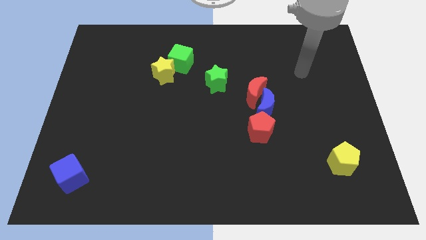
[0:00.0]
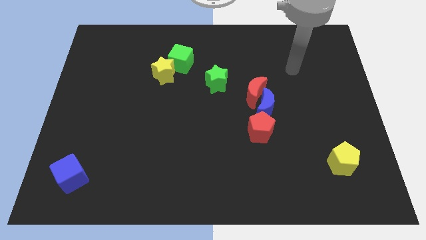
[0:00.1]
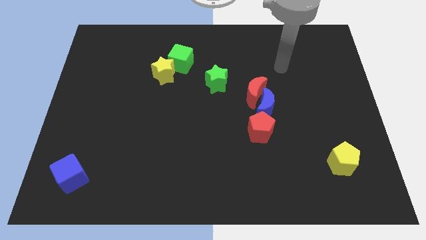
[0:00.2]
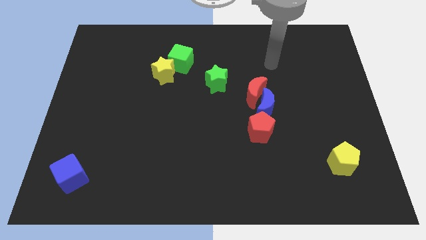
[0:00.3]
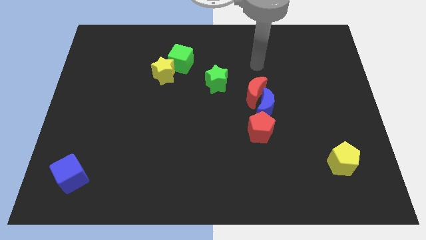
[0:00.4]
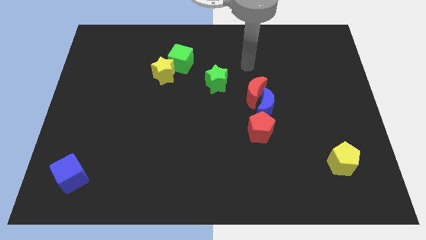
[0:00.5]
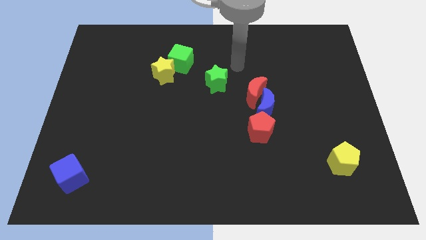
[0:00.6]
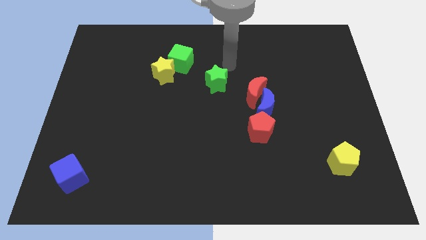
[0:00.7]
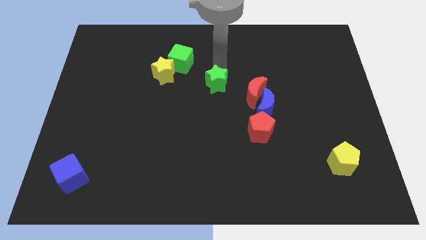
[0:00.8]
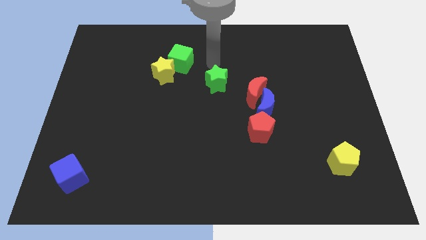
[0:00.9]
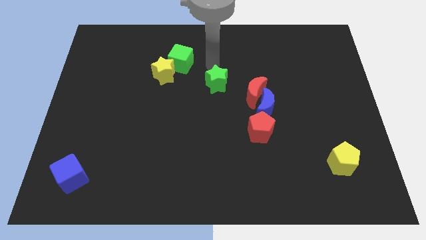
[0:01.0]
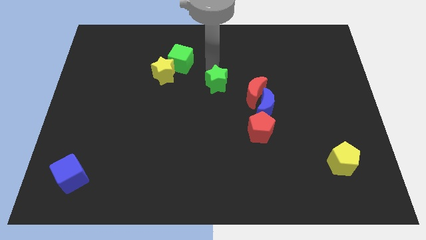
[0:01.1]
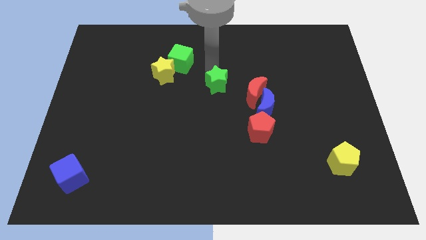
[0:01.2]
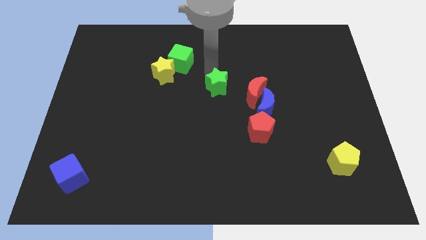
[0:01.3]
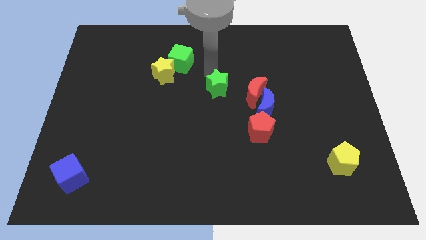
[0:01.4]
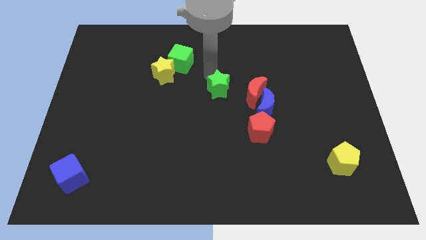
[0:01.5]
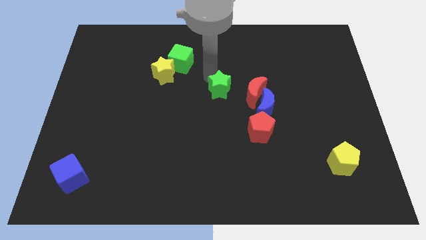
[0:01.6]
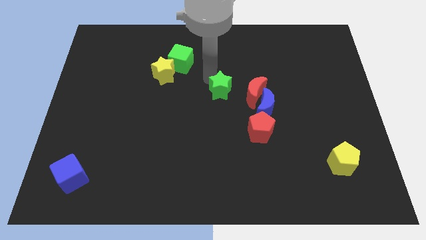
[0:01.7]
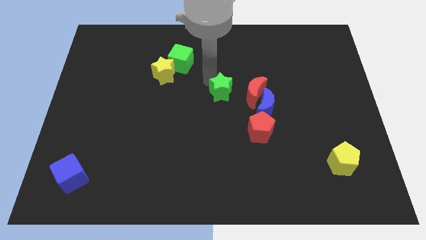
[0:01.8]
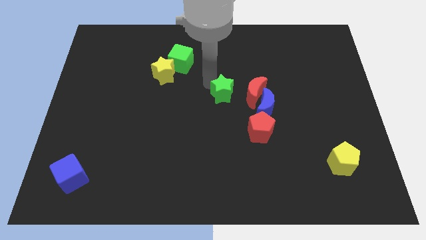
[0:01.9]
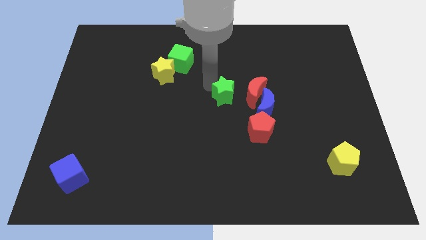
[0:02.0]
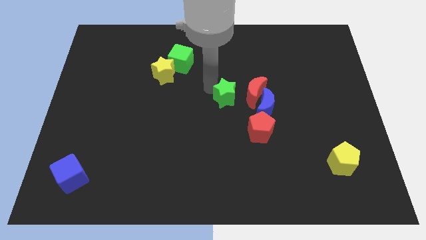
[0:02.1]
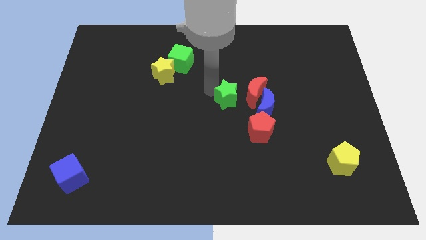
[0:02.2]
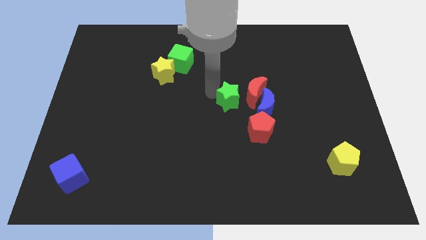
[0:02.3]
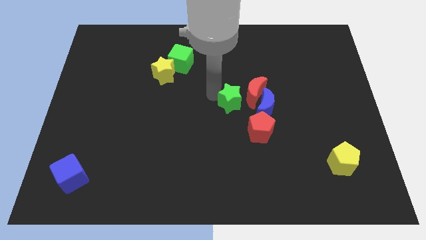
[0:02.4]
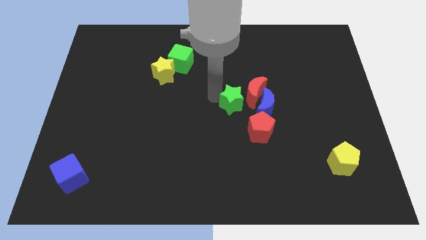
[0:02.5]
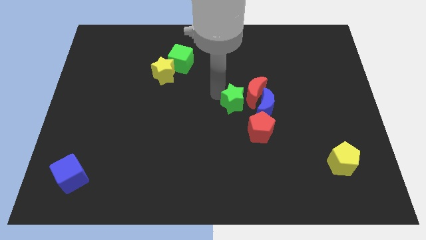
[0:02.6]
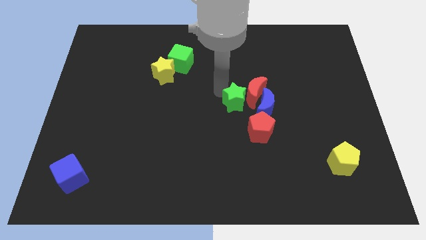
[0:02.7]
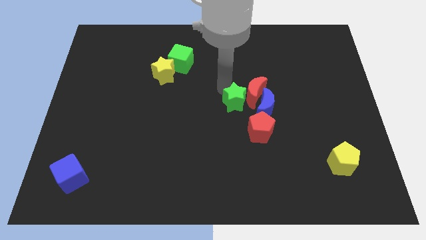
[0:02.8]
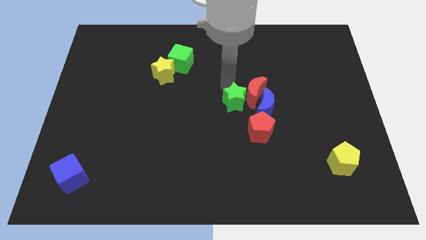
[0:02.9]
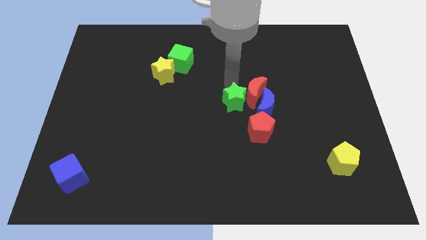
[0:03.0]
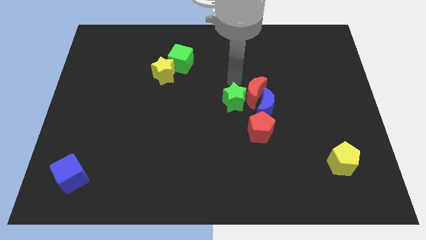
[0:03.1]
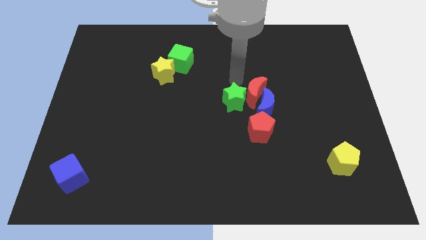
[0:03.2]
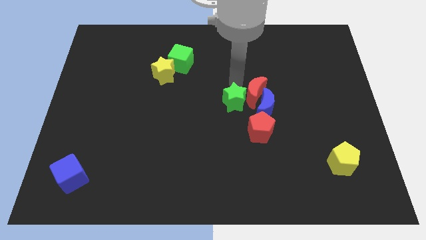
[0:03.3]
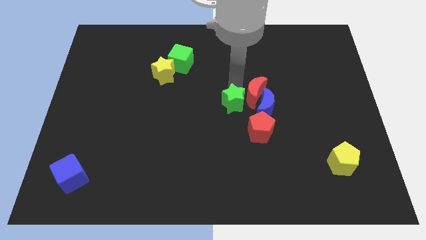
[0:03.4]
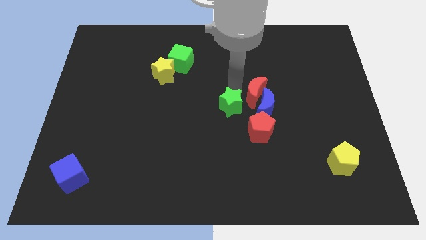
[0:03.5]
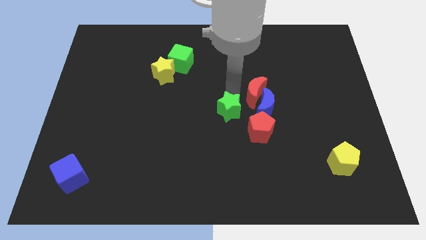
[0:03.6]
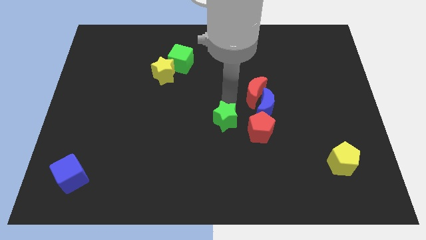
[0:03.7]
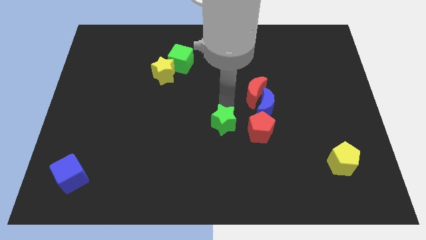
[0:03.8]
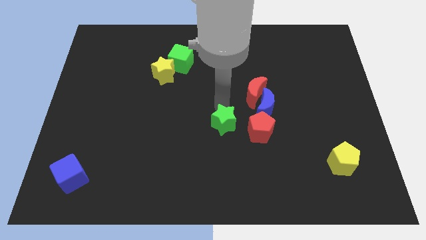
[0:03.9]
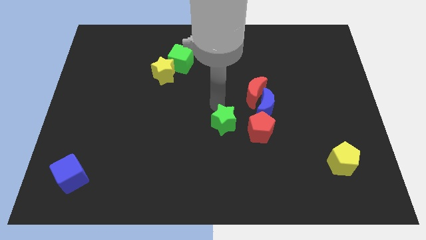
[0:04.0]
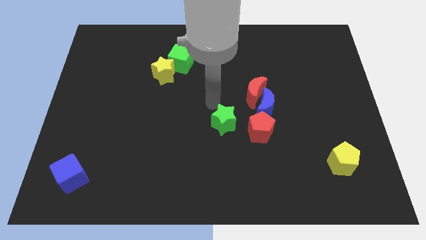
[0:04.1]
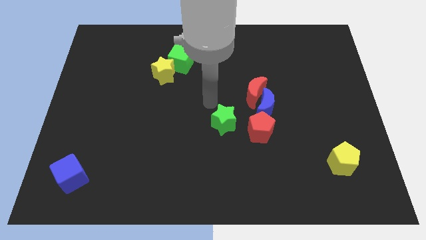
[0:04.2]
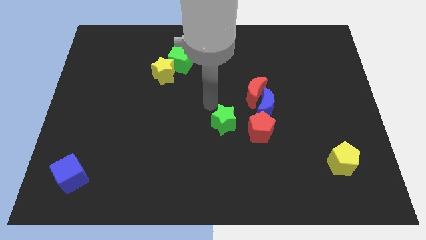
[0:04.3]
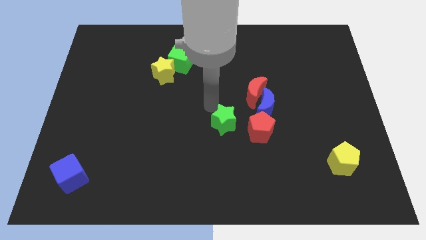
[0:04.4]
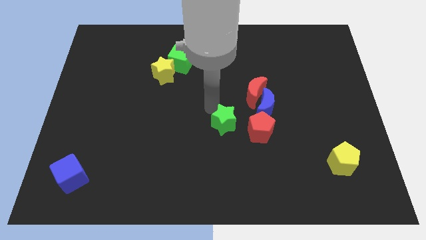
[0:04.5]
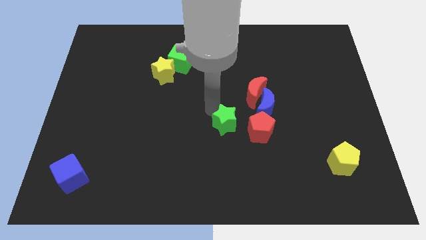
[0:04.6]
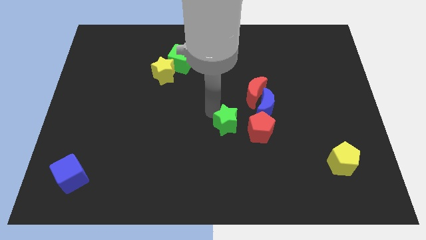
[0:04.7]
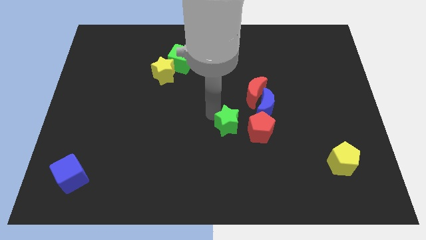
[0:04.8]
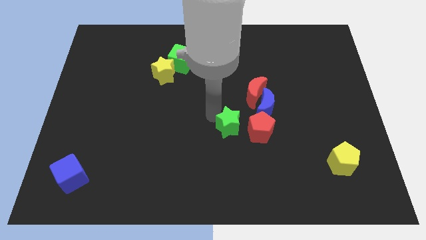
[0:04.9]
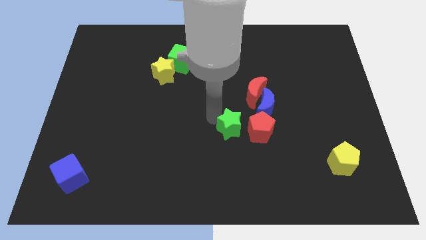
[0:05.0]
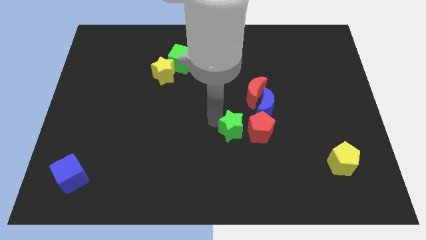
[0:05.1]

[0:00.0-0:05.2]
slide the green star diagonally down and to the left of the red pentagon

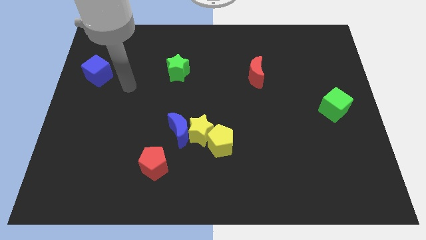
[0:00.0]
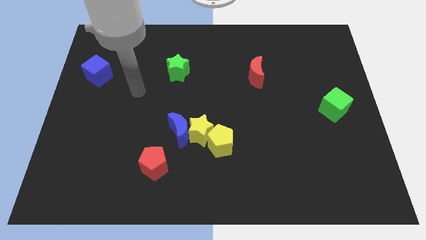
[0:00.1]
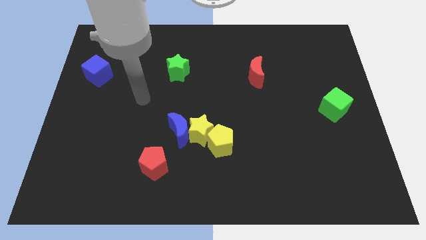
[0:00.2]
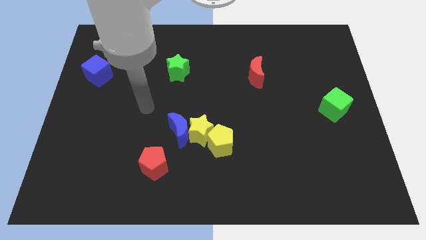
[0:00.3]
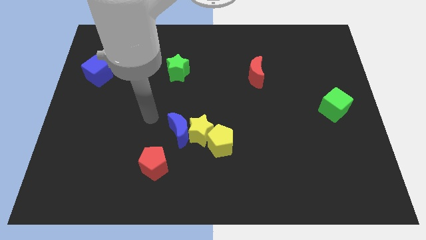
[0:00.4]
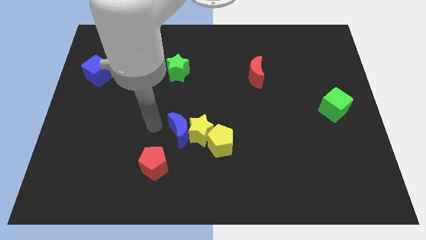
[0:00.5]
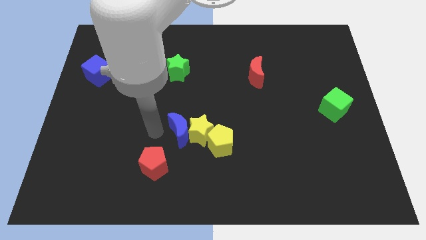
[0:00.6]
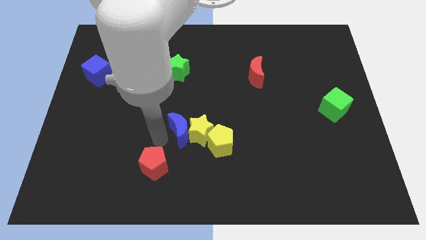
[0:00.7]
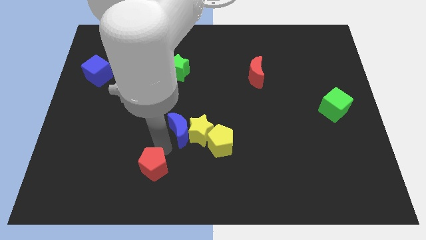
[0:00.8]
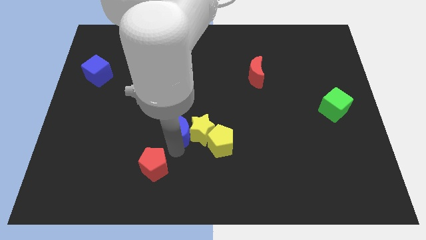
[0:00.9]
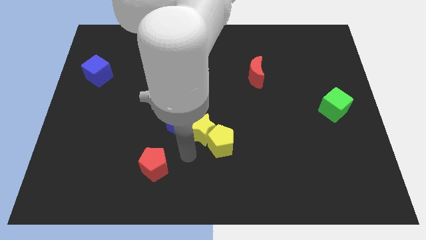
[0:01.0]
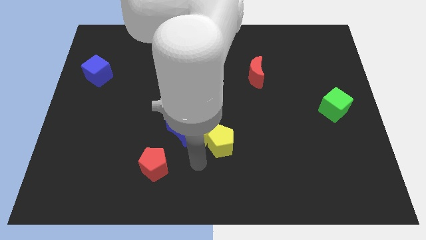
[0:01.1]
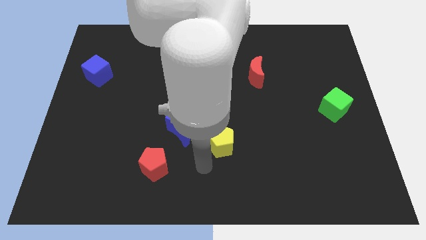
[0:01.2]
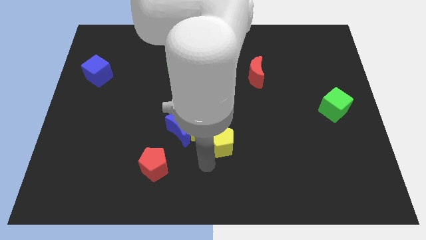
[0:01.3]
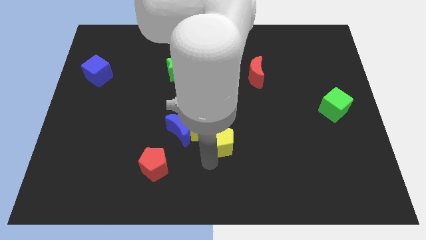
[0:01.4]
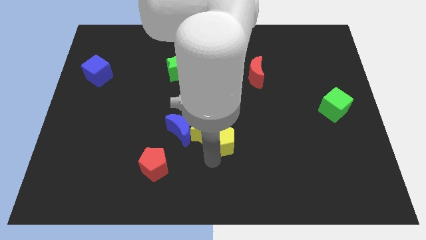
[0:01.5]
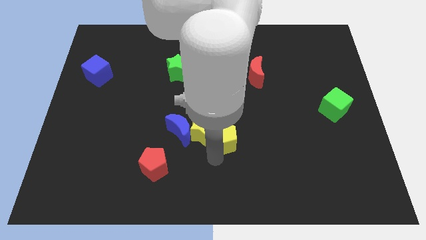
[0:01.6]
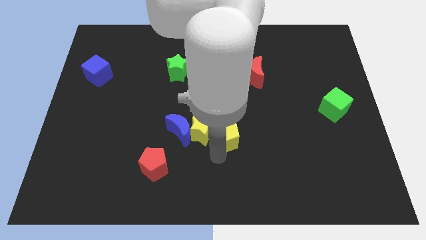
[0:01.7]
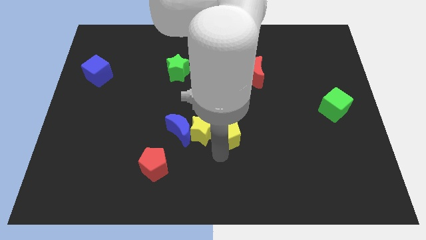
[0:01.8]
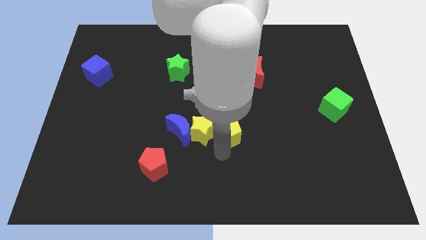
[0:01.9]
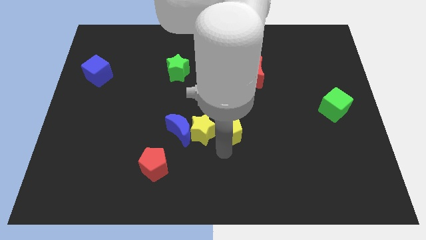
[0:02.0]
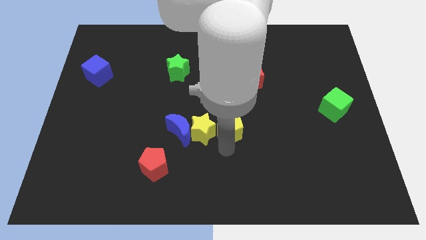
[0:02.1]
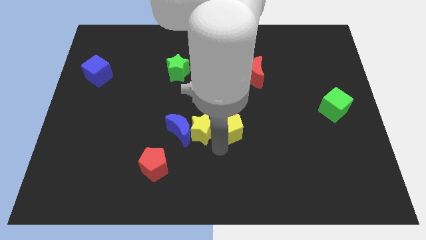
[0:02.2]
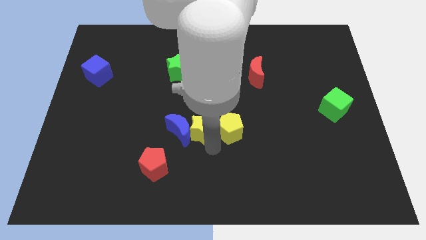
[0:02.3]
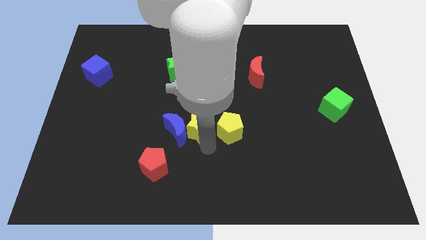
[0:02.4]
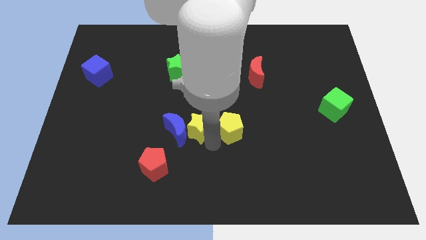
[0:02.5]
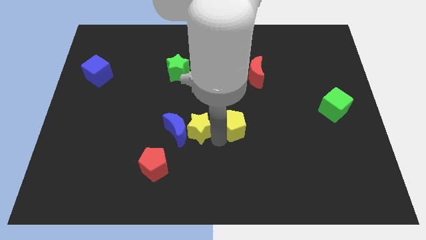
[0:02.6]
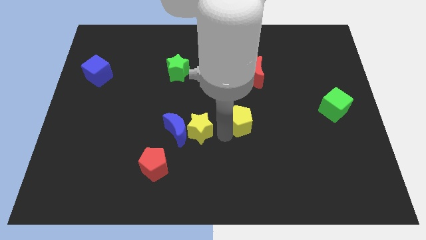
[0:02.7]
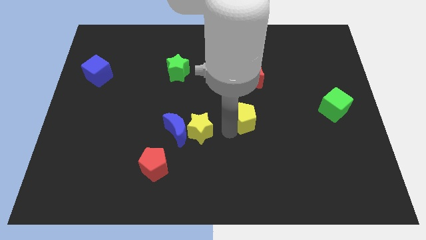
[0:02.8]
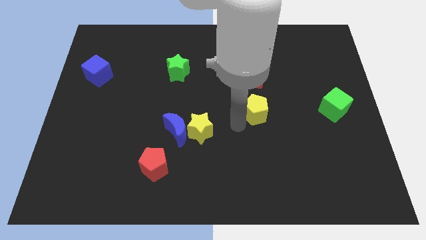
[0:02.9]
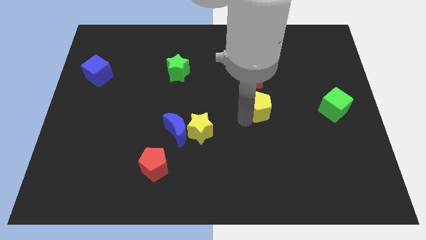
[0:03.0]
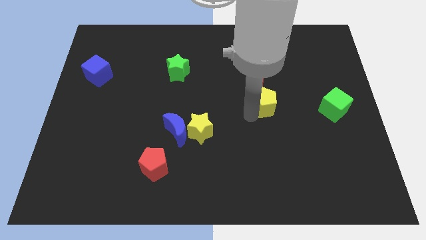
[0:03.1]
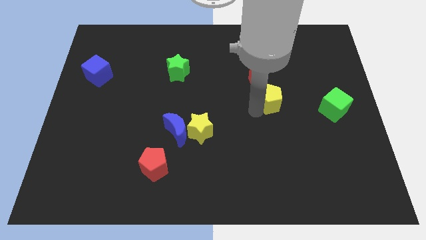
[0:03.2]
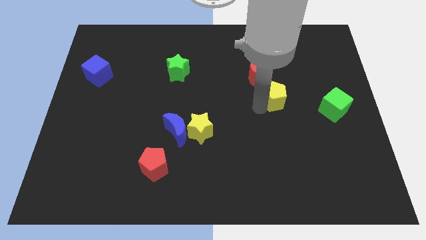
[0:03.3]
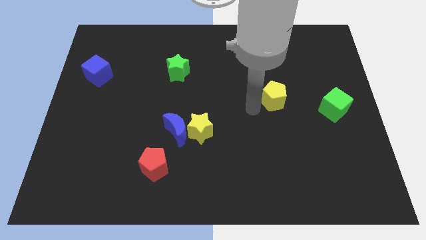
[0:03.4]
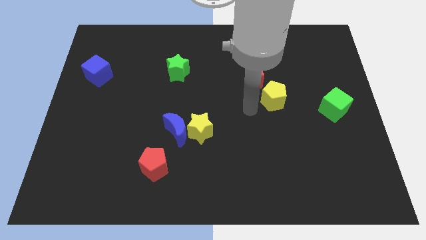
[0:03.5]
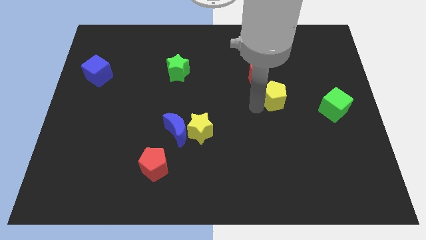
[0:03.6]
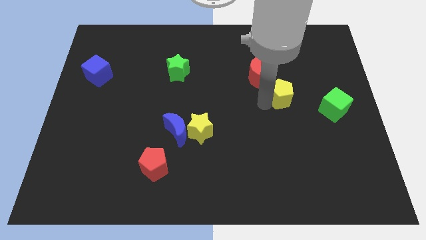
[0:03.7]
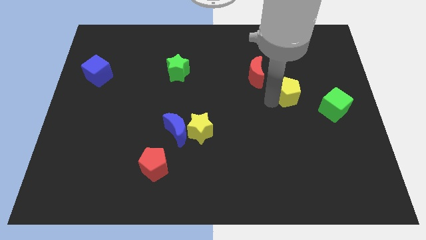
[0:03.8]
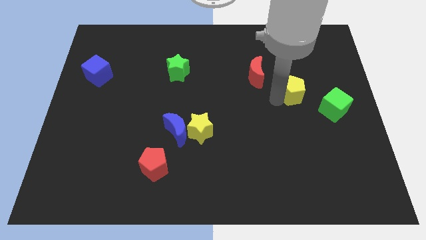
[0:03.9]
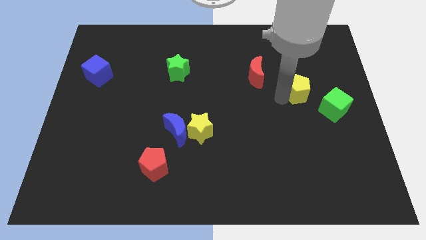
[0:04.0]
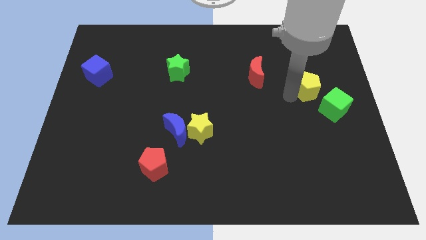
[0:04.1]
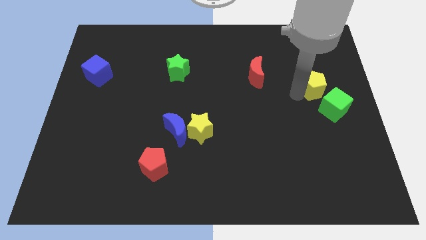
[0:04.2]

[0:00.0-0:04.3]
put the yellow pentagon above the green cube
